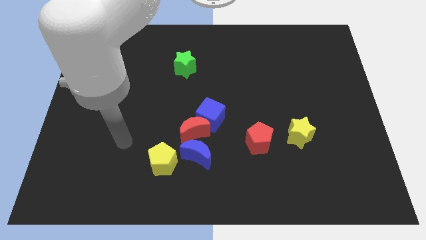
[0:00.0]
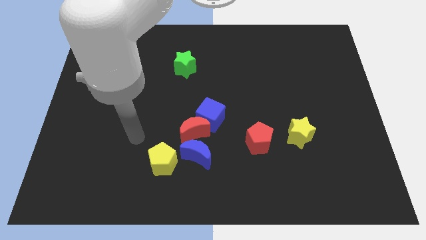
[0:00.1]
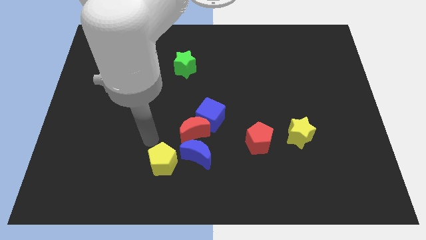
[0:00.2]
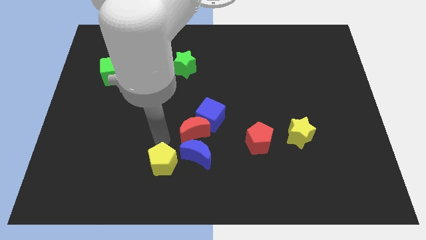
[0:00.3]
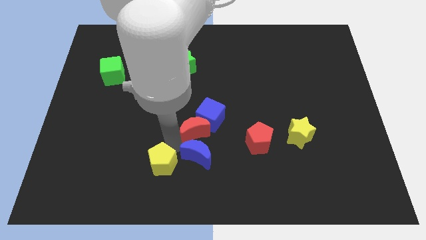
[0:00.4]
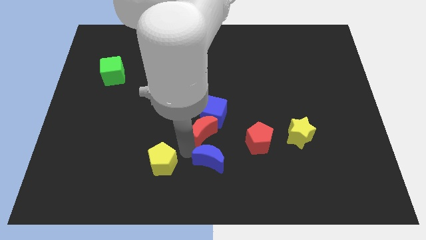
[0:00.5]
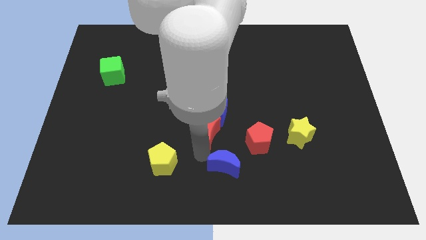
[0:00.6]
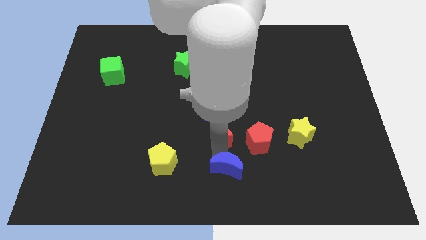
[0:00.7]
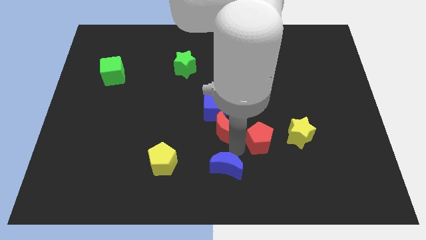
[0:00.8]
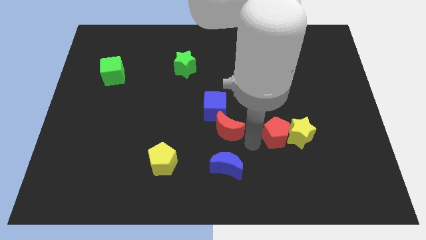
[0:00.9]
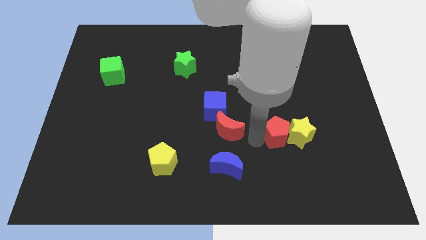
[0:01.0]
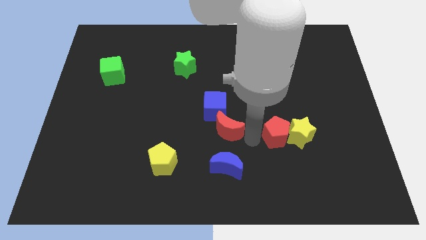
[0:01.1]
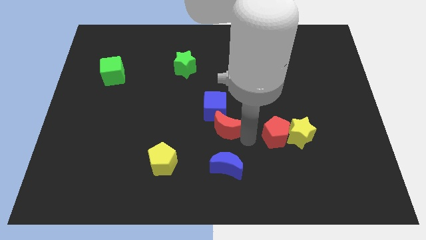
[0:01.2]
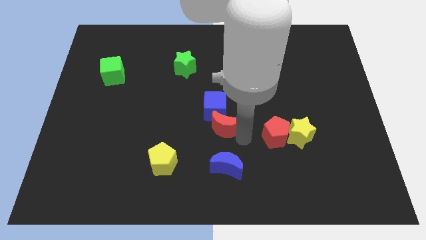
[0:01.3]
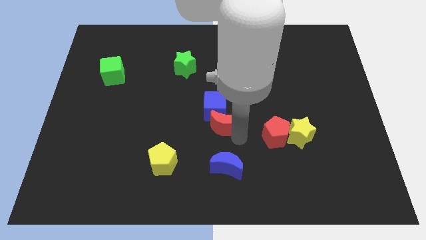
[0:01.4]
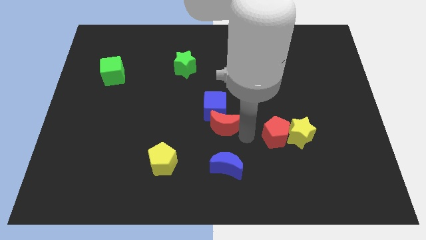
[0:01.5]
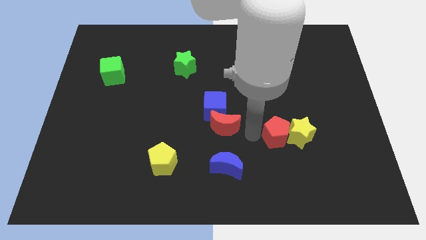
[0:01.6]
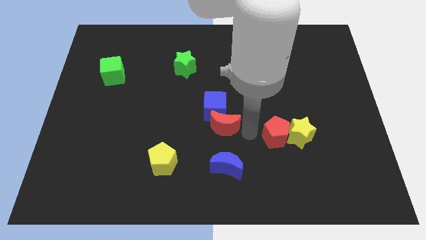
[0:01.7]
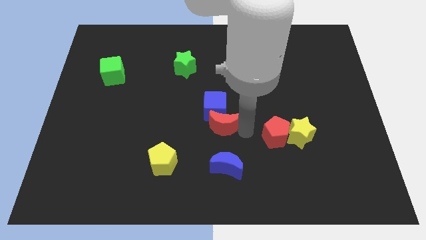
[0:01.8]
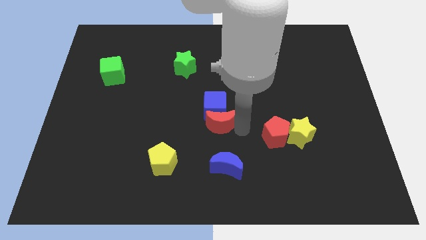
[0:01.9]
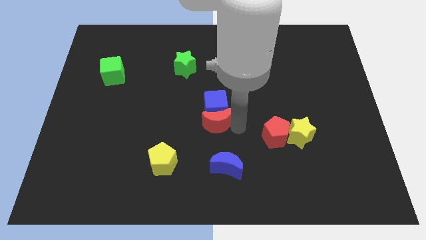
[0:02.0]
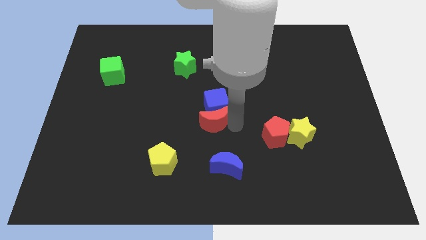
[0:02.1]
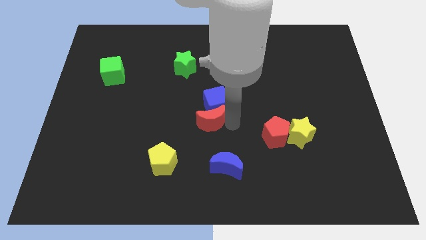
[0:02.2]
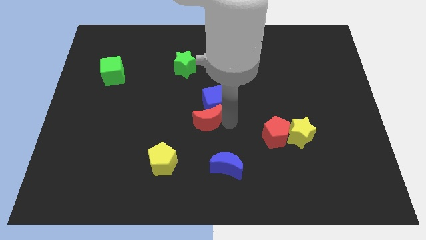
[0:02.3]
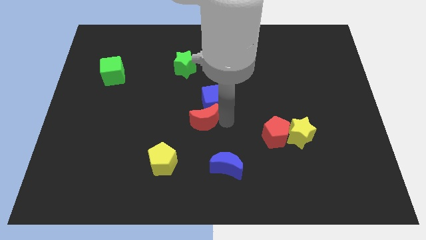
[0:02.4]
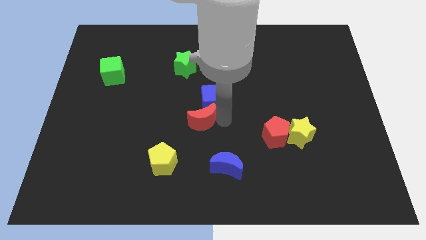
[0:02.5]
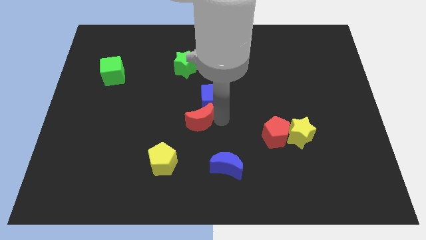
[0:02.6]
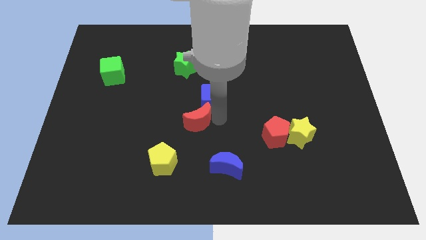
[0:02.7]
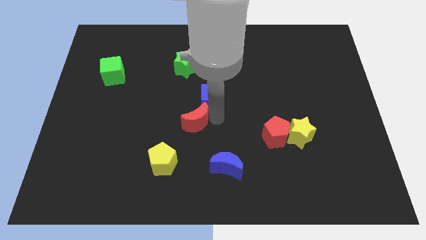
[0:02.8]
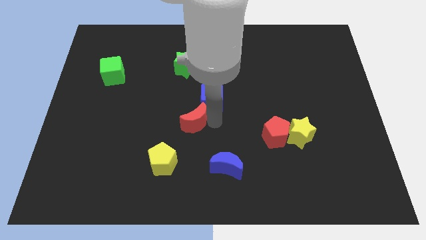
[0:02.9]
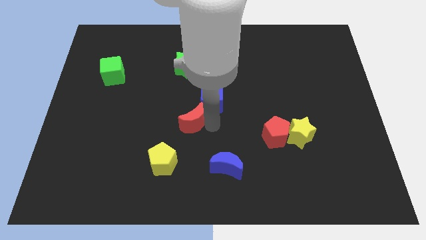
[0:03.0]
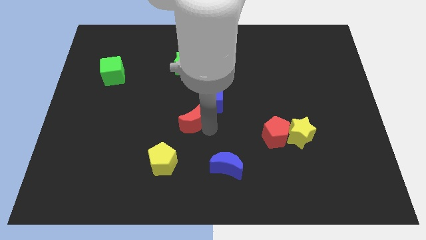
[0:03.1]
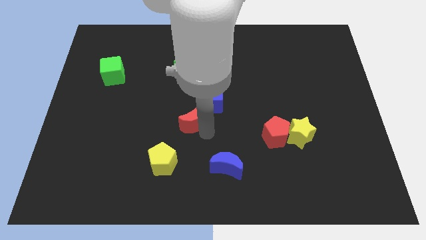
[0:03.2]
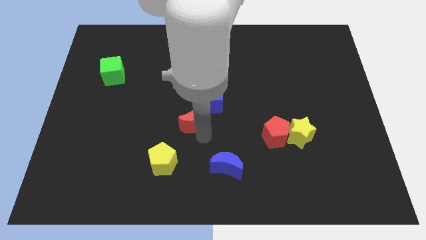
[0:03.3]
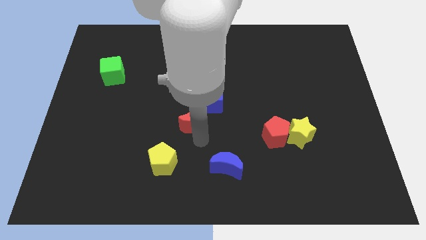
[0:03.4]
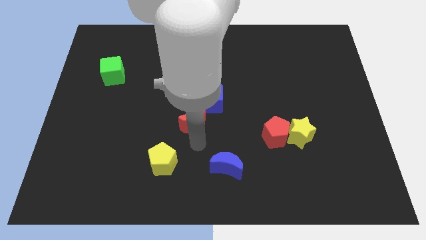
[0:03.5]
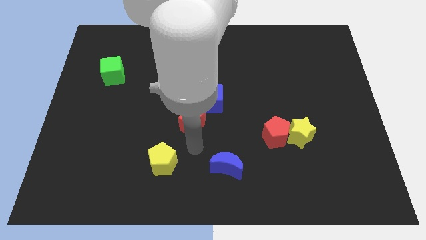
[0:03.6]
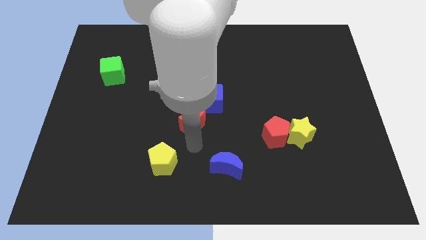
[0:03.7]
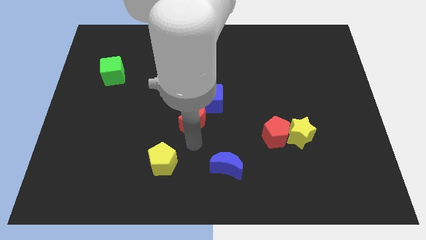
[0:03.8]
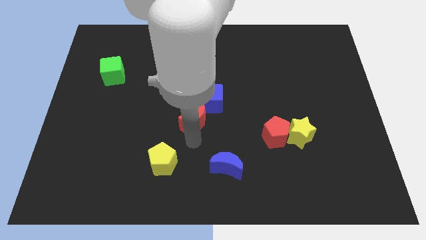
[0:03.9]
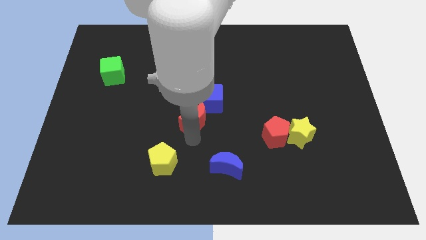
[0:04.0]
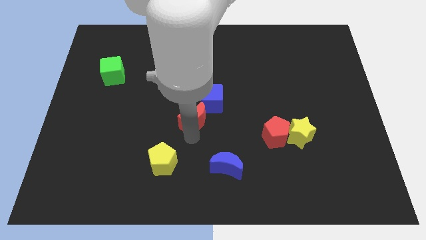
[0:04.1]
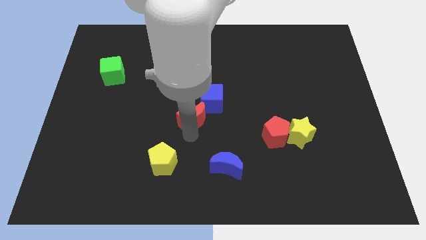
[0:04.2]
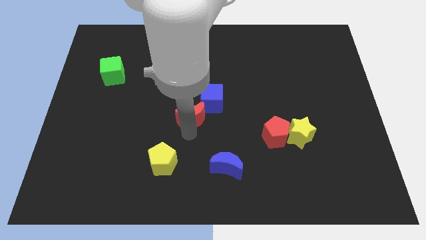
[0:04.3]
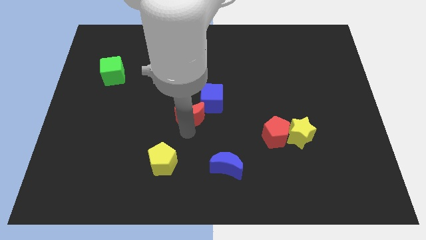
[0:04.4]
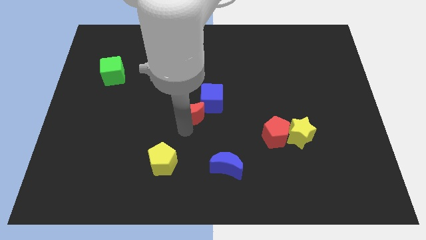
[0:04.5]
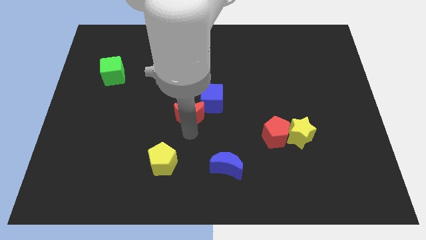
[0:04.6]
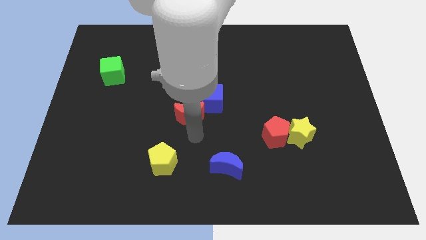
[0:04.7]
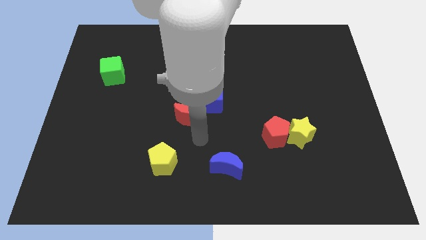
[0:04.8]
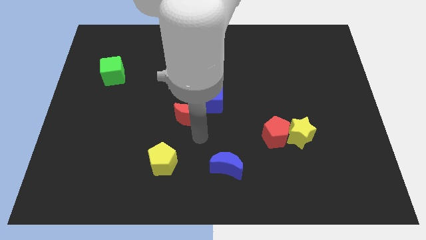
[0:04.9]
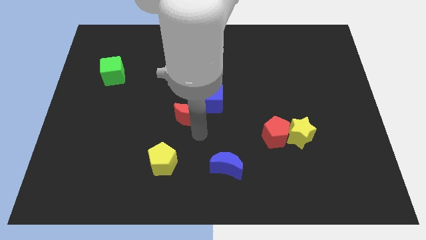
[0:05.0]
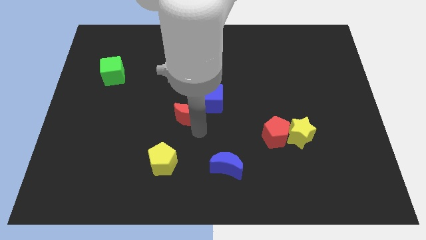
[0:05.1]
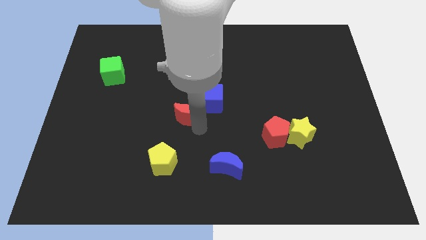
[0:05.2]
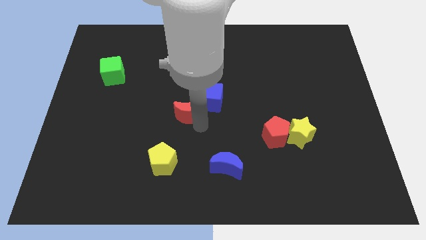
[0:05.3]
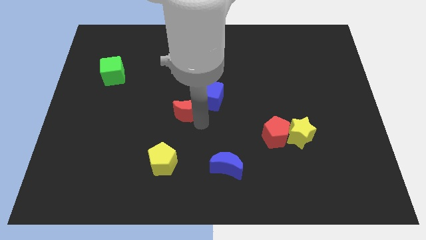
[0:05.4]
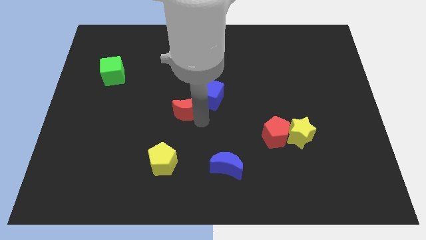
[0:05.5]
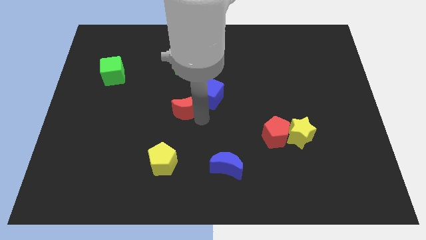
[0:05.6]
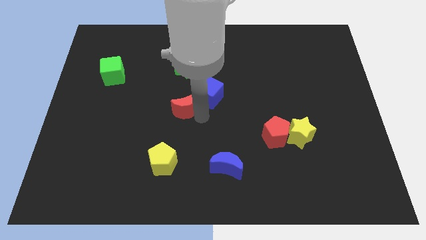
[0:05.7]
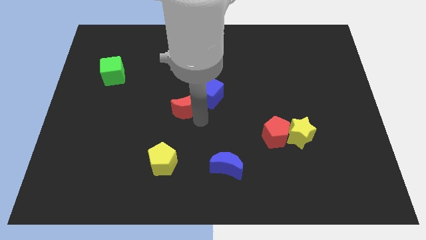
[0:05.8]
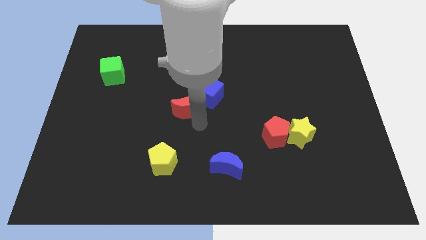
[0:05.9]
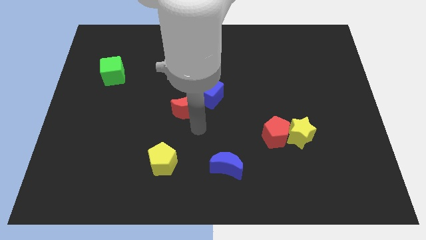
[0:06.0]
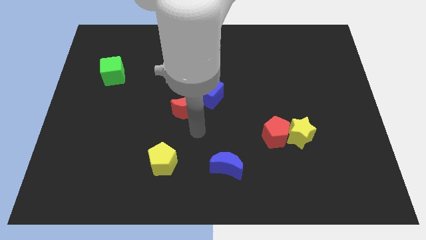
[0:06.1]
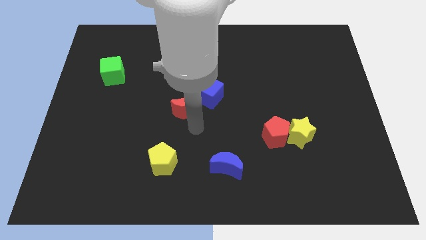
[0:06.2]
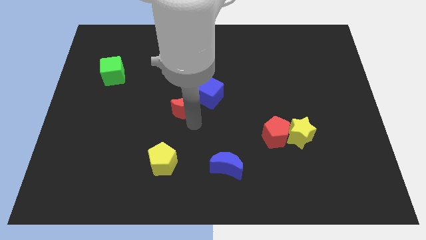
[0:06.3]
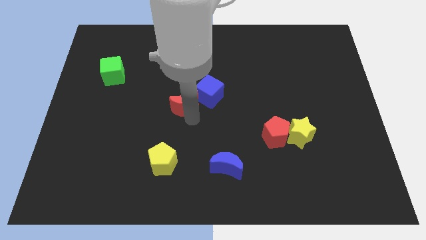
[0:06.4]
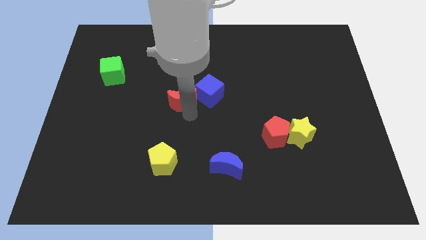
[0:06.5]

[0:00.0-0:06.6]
separate the red moon from the group of blocks

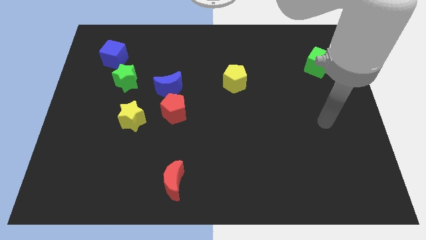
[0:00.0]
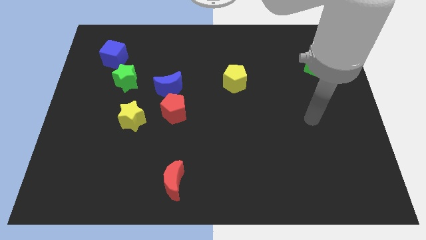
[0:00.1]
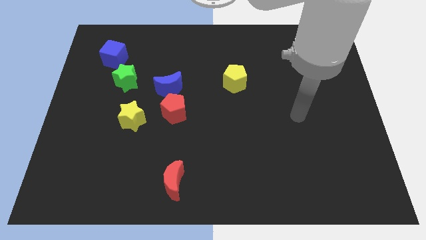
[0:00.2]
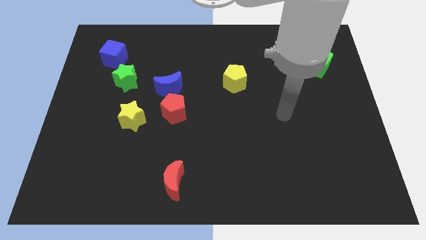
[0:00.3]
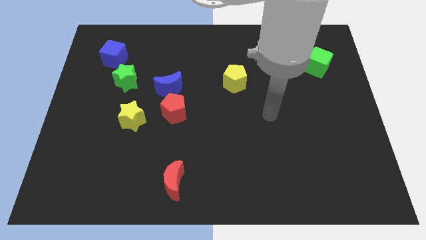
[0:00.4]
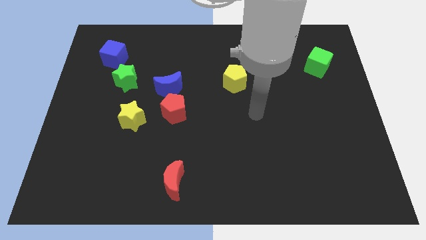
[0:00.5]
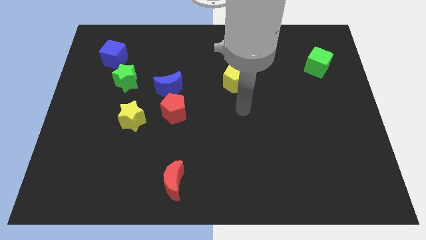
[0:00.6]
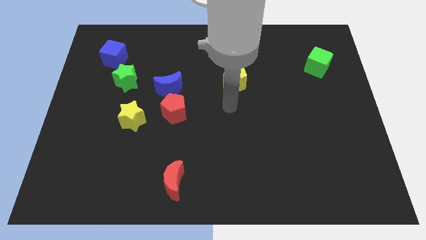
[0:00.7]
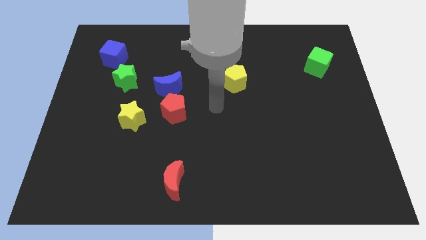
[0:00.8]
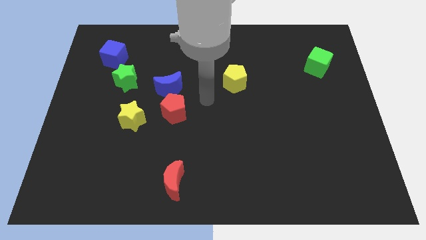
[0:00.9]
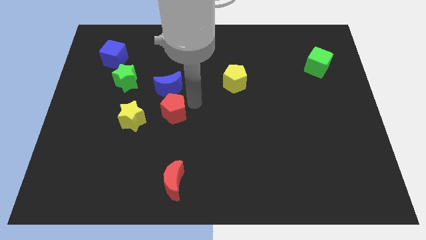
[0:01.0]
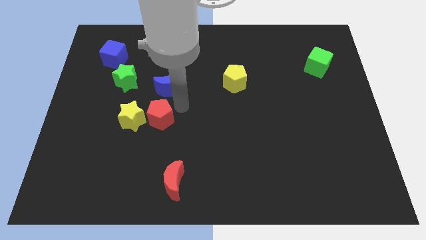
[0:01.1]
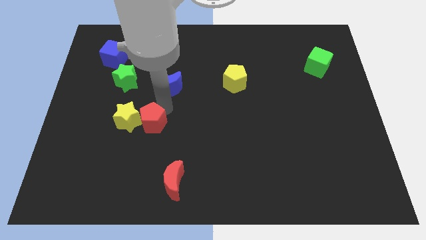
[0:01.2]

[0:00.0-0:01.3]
pull the blue moon apart from the red pentagon

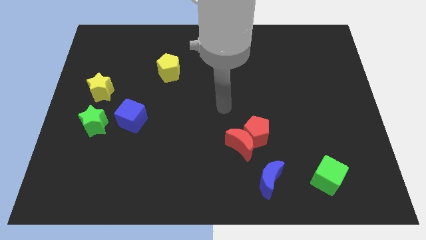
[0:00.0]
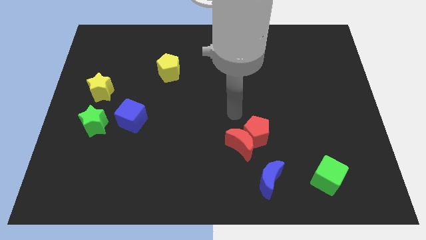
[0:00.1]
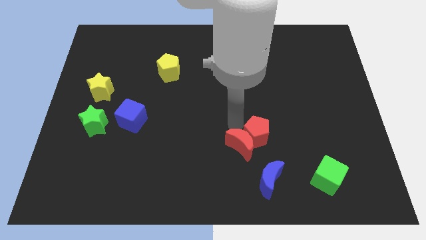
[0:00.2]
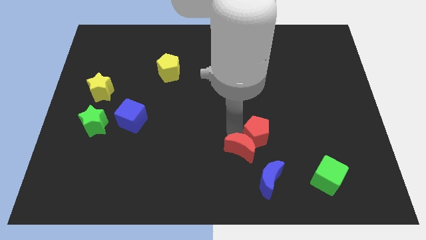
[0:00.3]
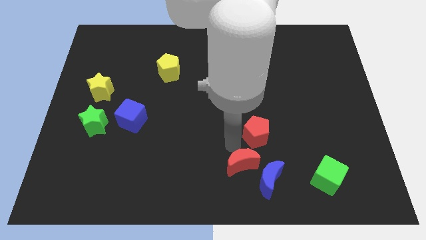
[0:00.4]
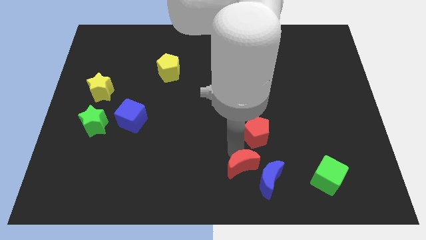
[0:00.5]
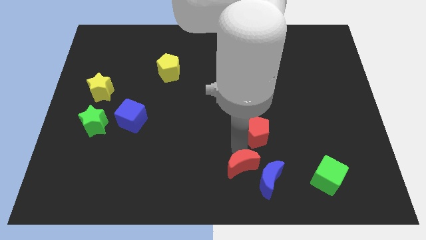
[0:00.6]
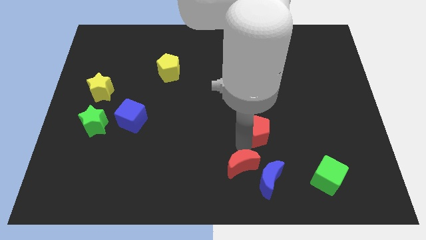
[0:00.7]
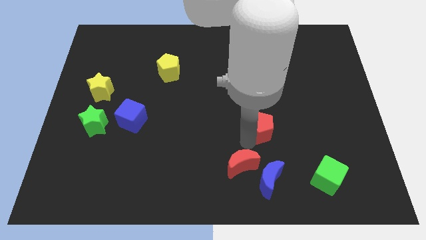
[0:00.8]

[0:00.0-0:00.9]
separate the red pentagon from the red moon

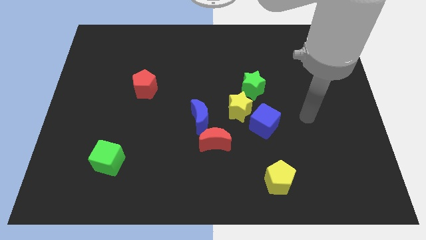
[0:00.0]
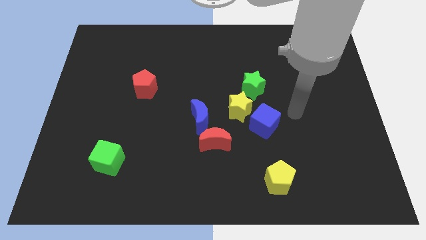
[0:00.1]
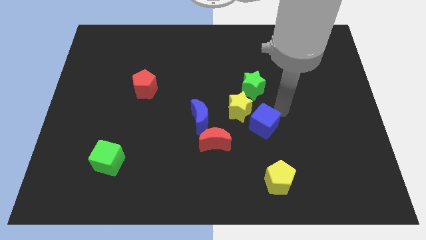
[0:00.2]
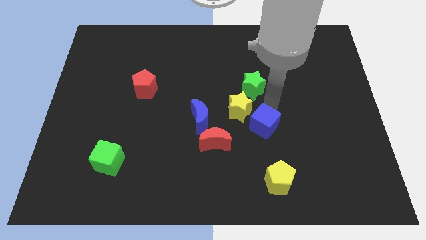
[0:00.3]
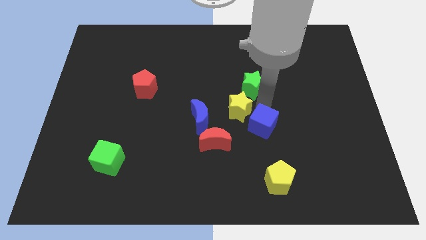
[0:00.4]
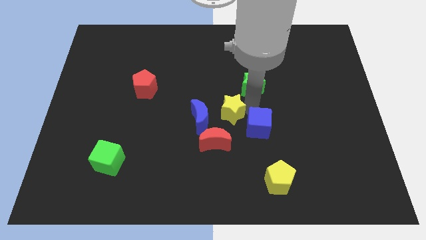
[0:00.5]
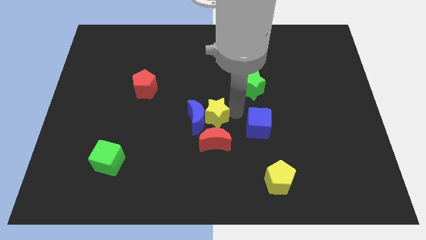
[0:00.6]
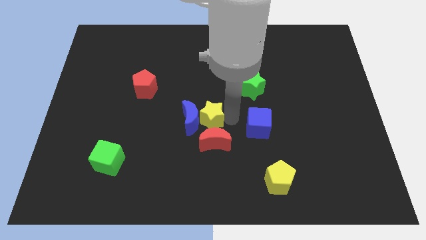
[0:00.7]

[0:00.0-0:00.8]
separate the blue cube from the yellow star
